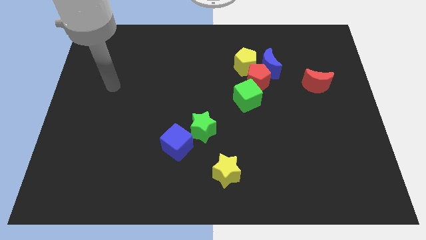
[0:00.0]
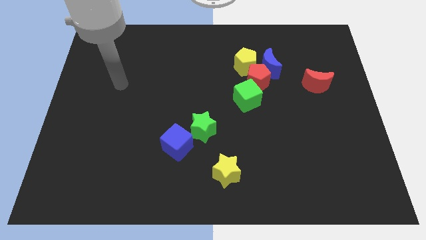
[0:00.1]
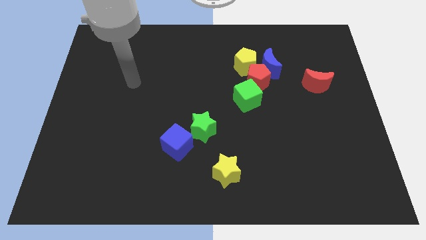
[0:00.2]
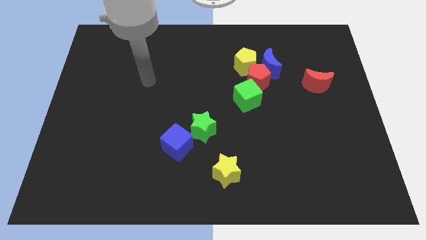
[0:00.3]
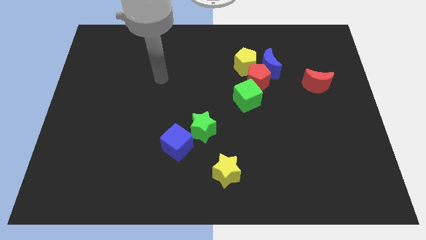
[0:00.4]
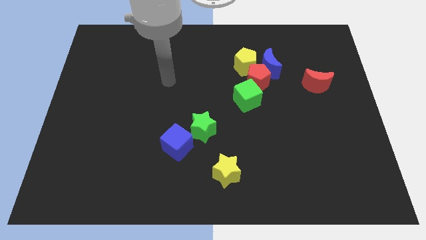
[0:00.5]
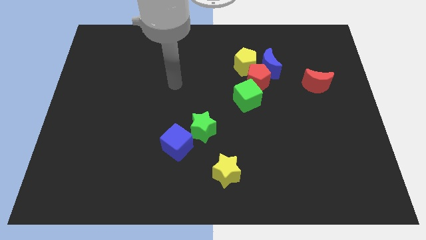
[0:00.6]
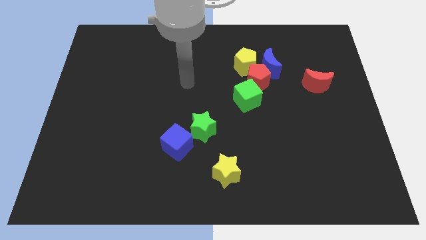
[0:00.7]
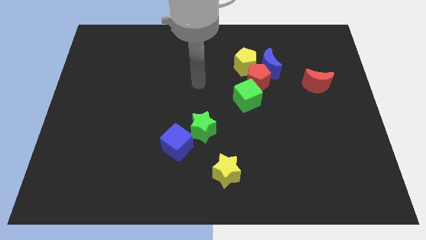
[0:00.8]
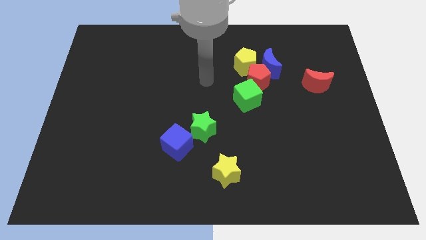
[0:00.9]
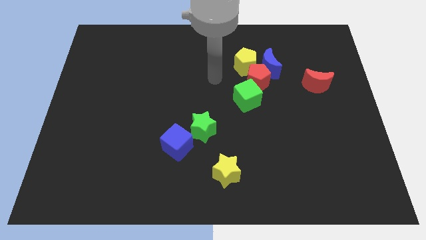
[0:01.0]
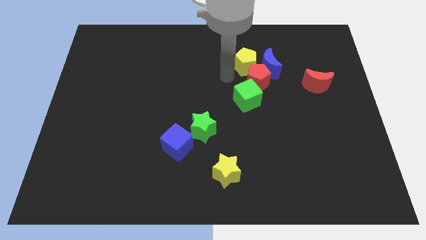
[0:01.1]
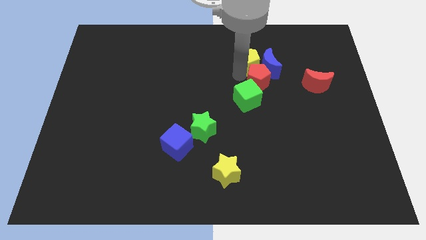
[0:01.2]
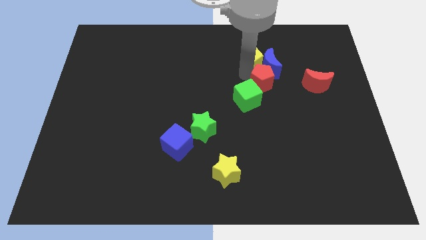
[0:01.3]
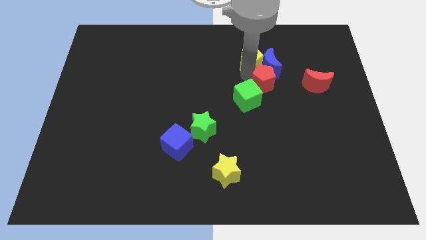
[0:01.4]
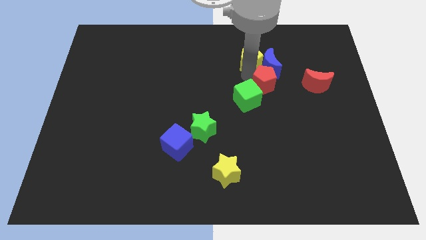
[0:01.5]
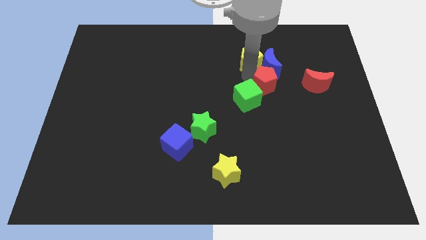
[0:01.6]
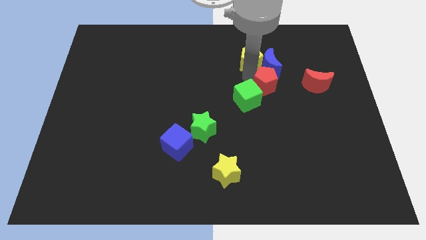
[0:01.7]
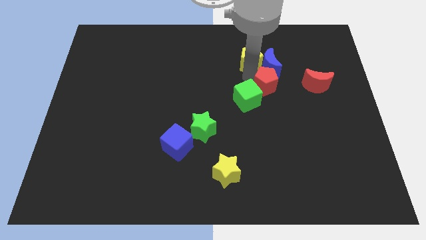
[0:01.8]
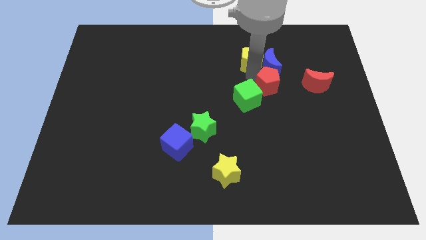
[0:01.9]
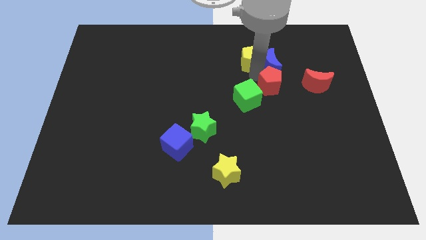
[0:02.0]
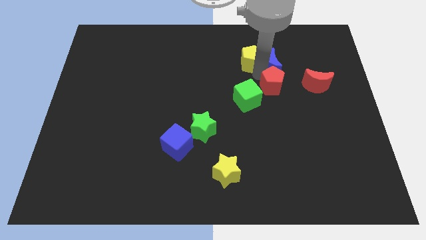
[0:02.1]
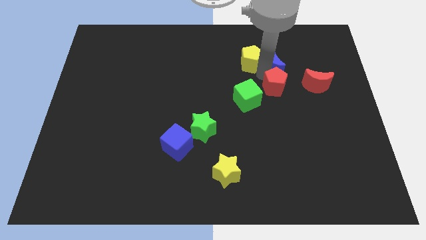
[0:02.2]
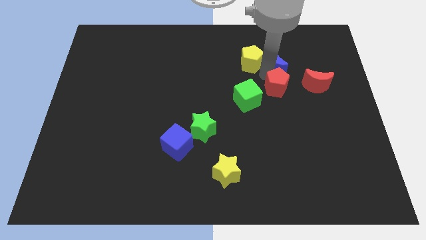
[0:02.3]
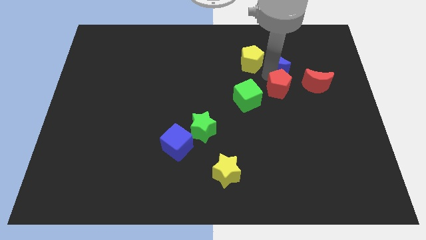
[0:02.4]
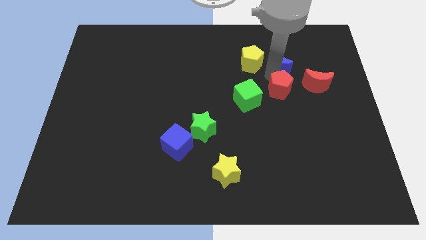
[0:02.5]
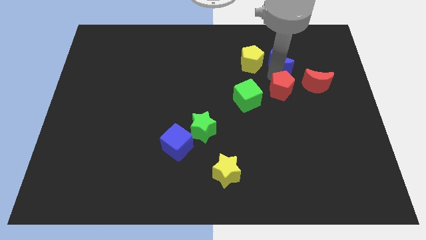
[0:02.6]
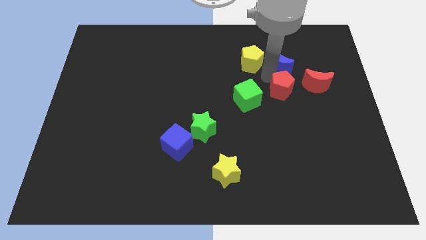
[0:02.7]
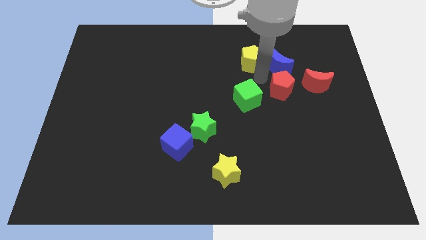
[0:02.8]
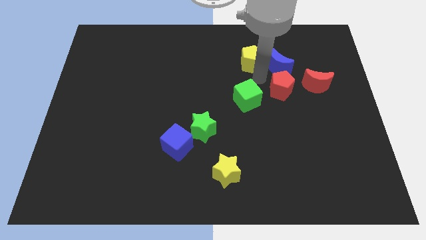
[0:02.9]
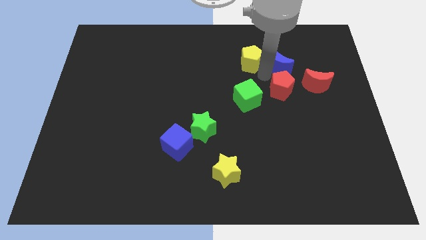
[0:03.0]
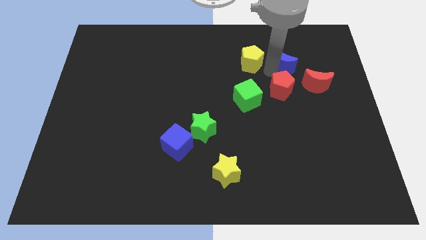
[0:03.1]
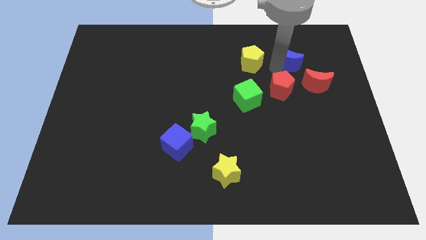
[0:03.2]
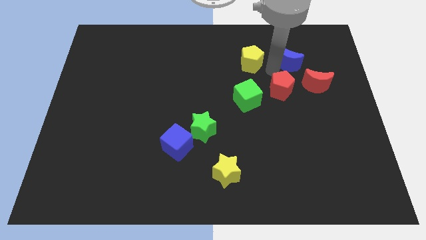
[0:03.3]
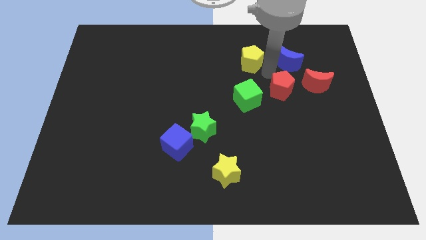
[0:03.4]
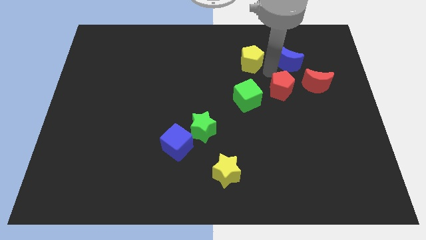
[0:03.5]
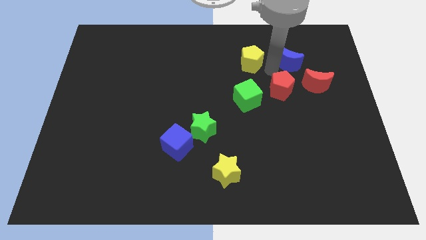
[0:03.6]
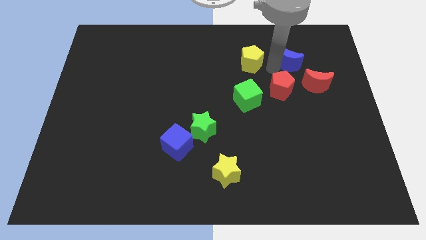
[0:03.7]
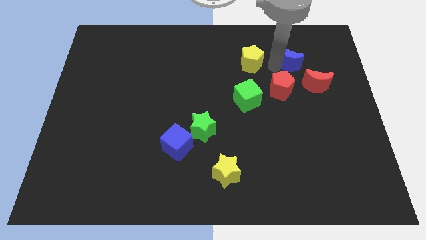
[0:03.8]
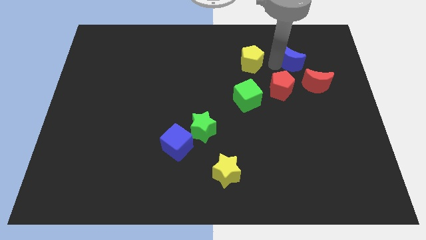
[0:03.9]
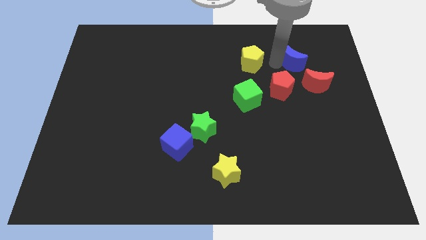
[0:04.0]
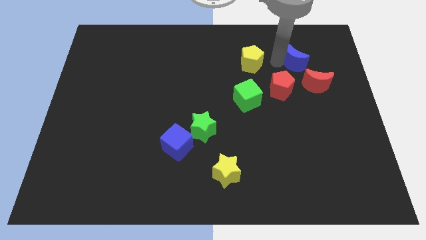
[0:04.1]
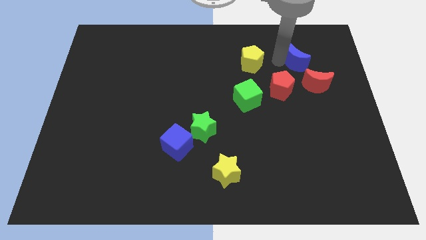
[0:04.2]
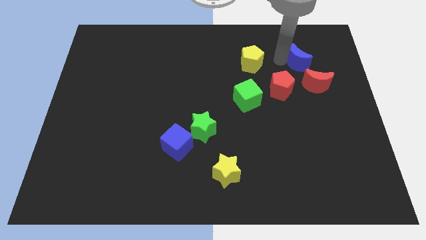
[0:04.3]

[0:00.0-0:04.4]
separate the blue moon from the red pentagon and yellow pentagon

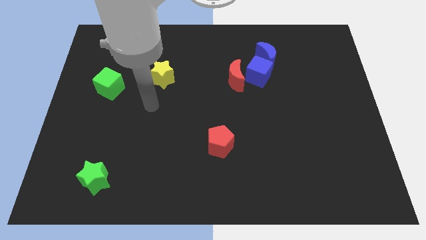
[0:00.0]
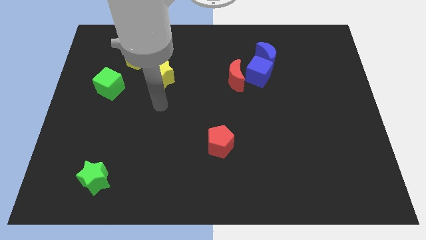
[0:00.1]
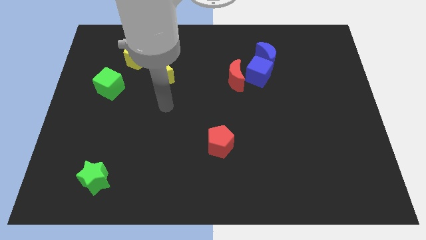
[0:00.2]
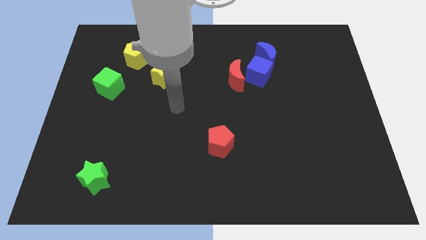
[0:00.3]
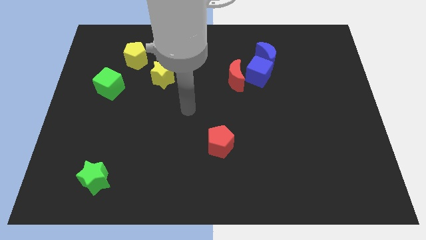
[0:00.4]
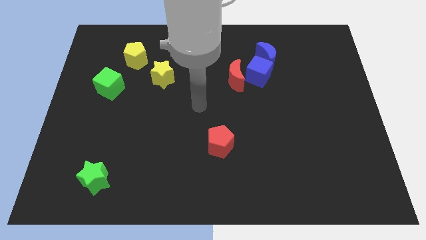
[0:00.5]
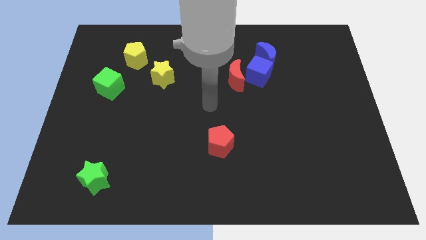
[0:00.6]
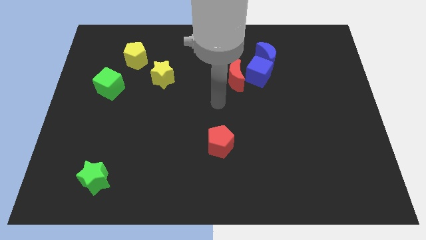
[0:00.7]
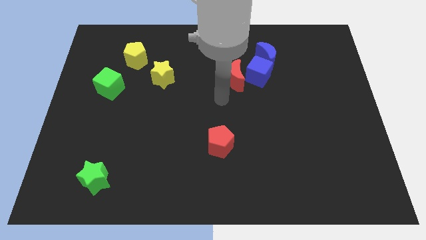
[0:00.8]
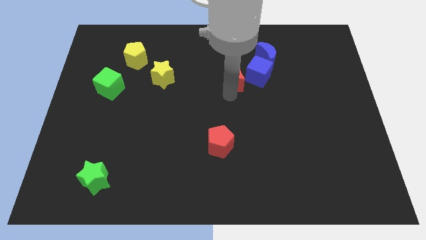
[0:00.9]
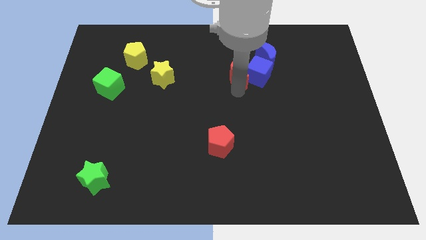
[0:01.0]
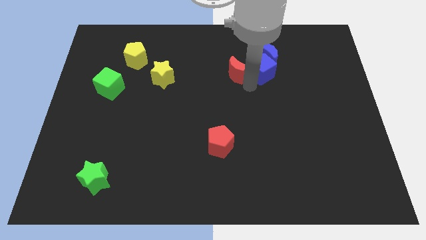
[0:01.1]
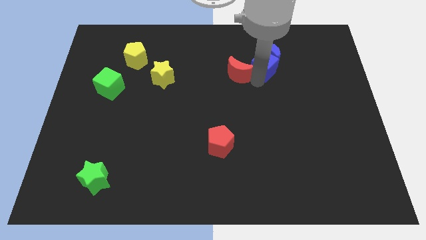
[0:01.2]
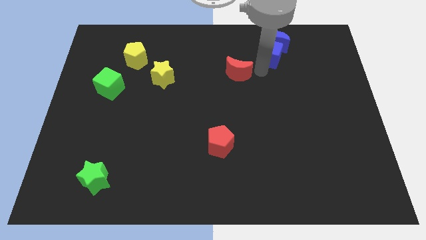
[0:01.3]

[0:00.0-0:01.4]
move the red moon away from the blue cube

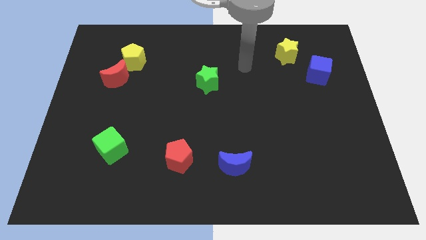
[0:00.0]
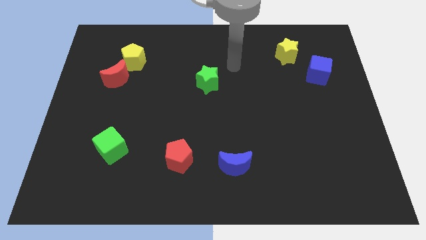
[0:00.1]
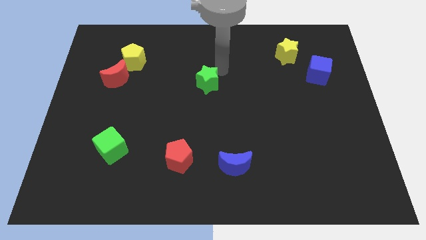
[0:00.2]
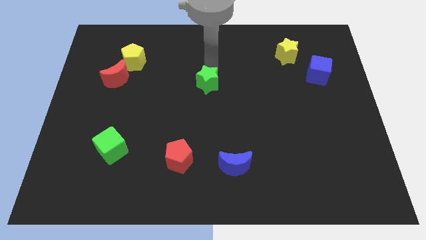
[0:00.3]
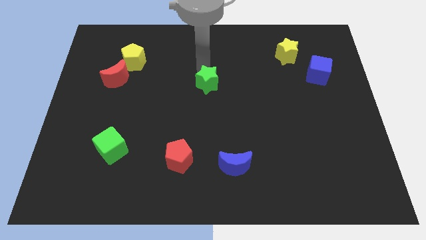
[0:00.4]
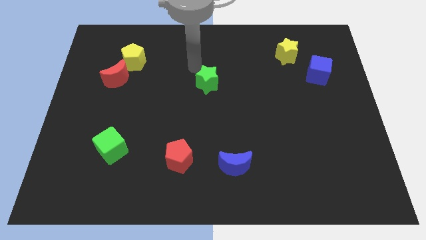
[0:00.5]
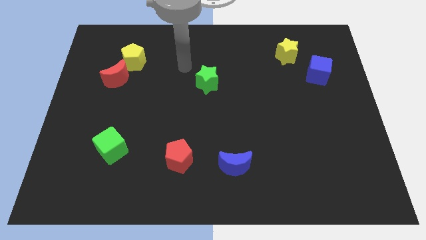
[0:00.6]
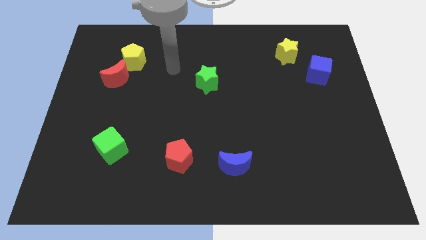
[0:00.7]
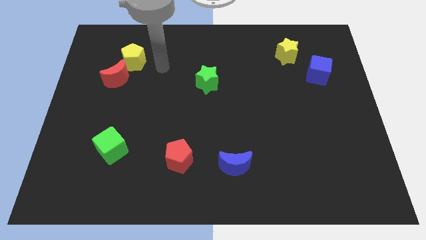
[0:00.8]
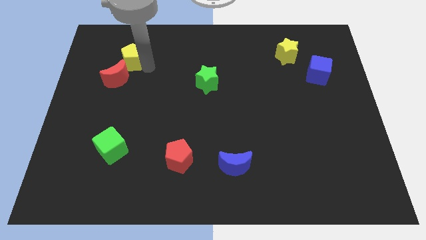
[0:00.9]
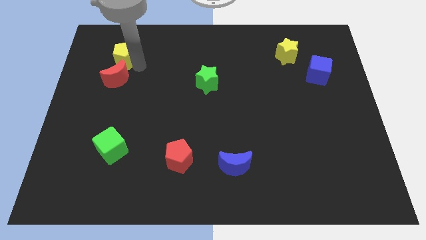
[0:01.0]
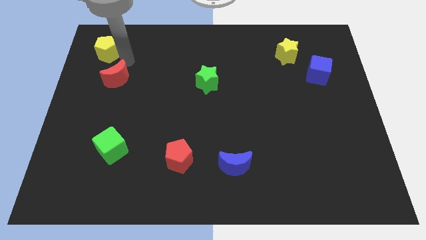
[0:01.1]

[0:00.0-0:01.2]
separate the red moon from the yellow pentagon

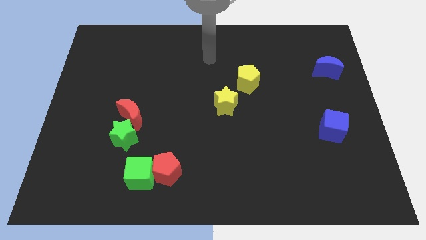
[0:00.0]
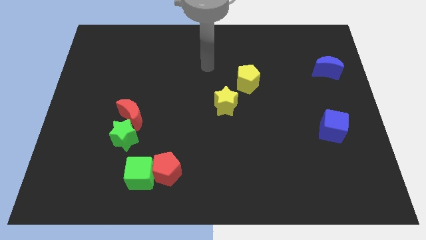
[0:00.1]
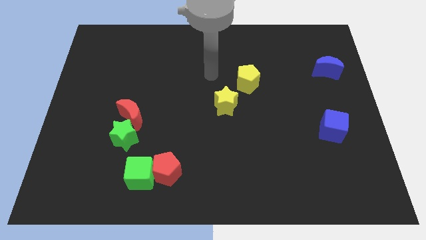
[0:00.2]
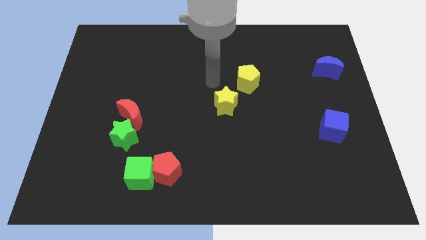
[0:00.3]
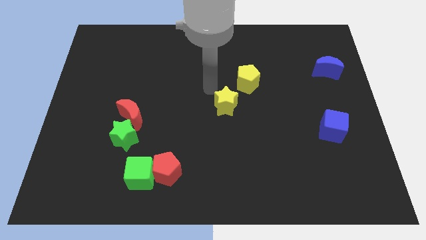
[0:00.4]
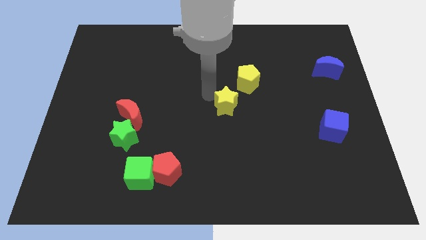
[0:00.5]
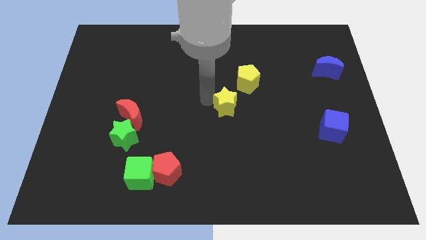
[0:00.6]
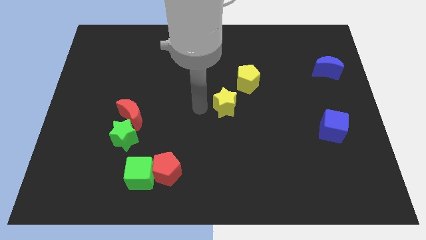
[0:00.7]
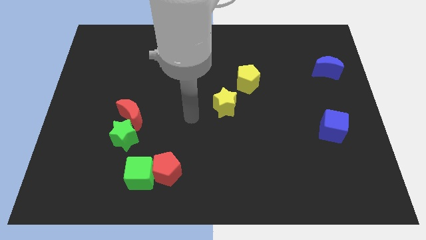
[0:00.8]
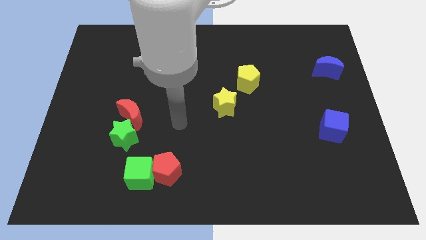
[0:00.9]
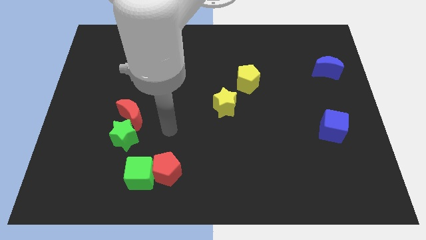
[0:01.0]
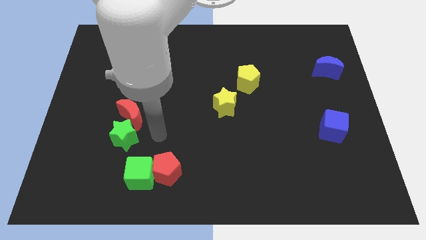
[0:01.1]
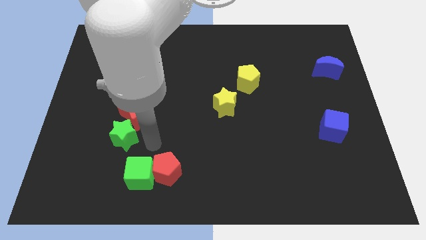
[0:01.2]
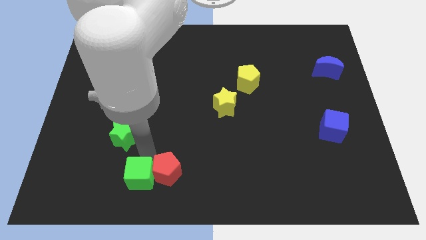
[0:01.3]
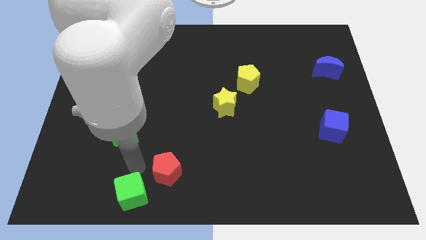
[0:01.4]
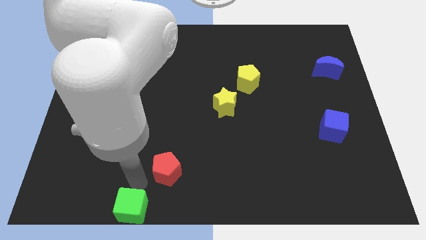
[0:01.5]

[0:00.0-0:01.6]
move the red pentagon away from the green cube

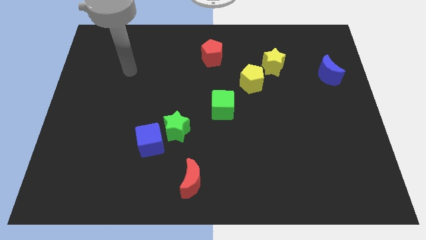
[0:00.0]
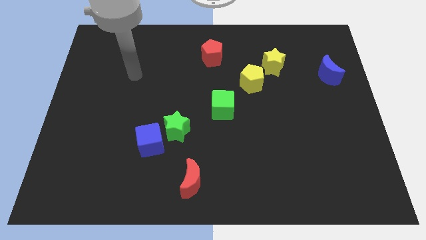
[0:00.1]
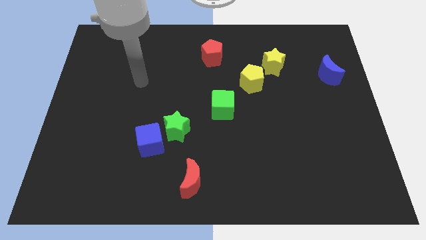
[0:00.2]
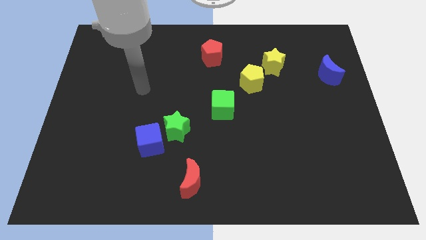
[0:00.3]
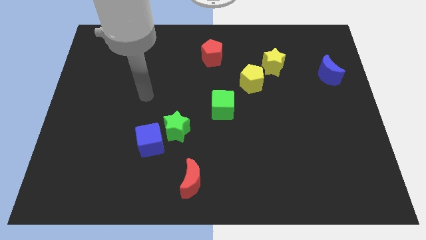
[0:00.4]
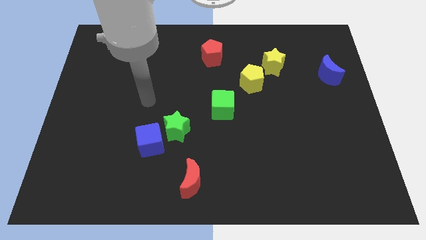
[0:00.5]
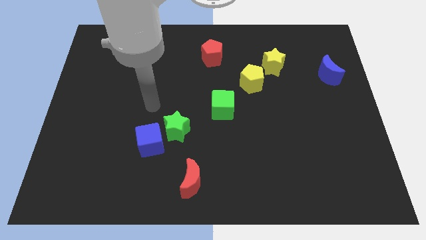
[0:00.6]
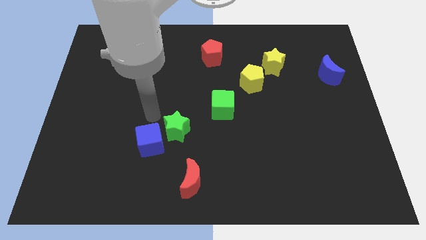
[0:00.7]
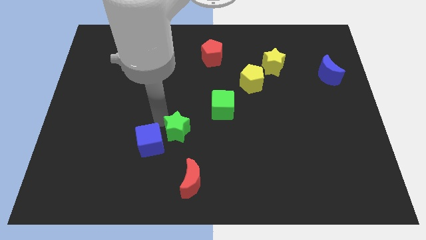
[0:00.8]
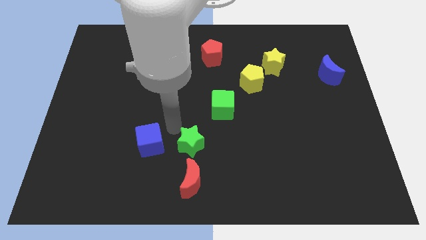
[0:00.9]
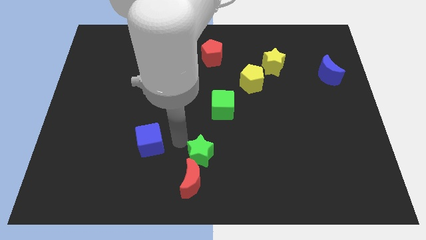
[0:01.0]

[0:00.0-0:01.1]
move the blue cube away from the green star
